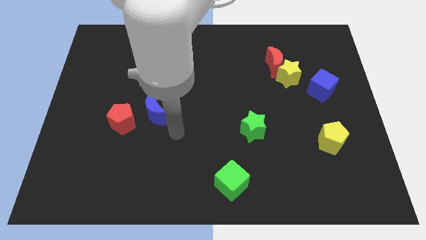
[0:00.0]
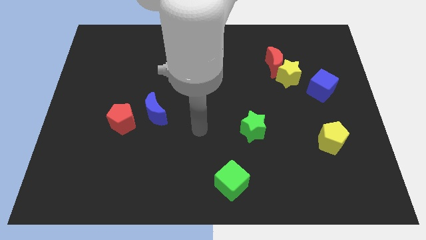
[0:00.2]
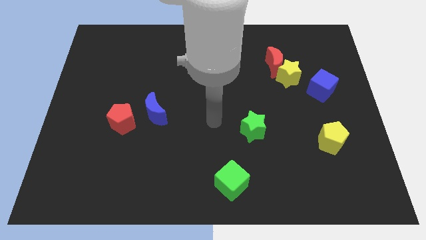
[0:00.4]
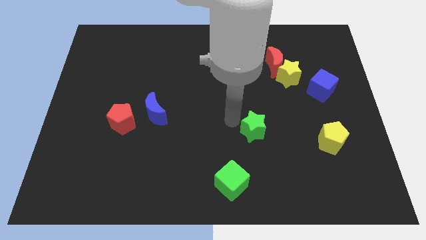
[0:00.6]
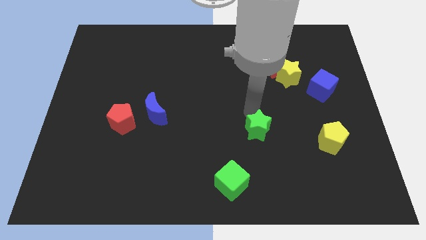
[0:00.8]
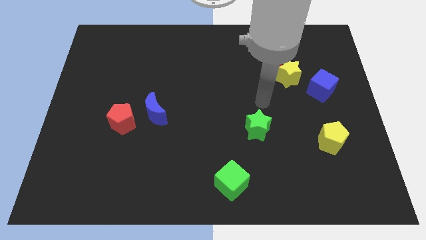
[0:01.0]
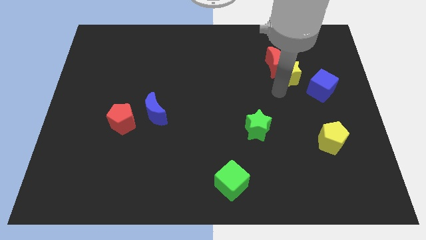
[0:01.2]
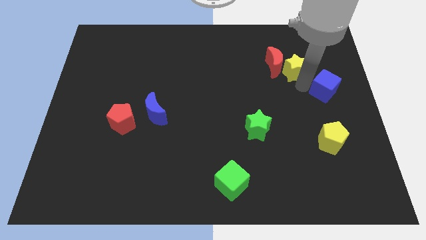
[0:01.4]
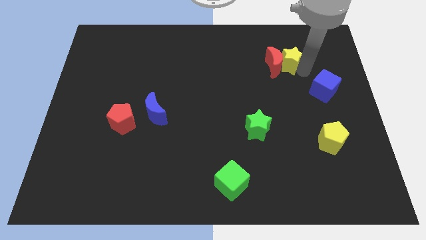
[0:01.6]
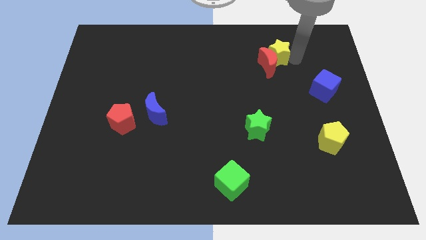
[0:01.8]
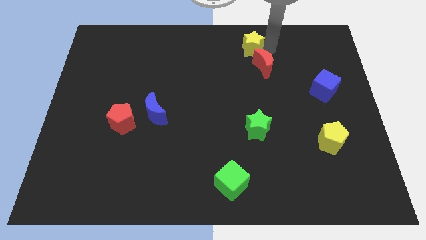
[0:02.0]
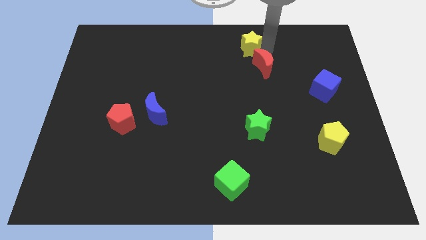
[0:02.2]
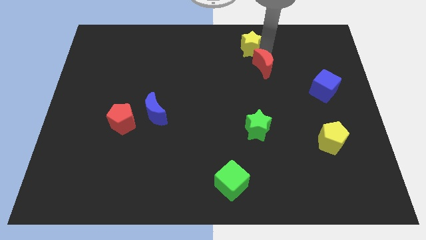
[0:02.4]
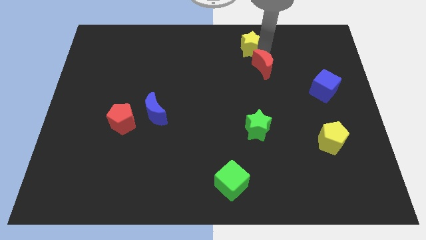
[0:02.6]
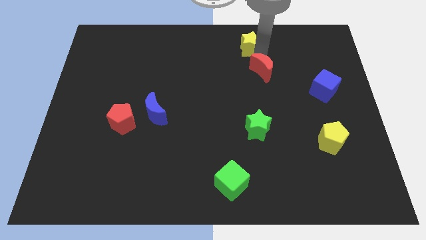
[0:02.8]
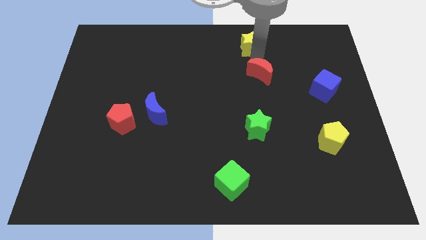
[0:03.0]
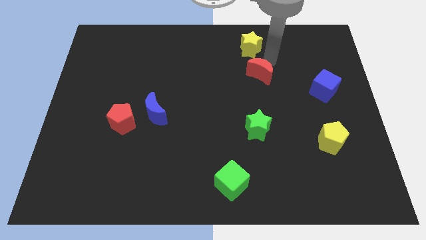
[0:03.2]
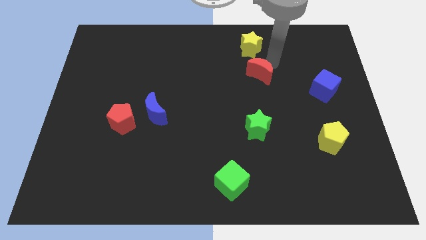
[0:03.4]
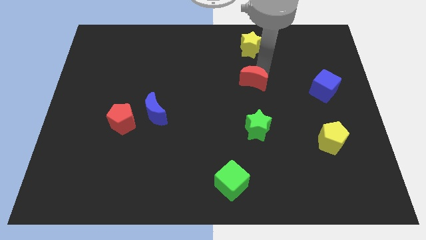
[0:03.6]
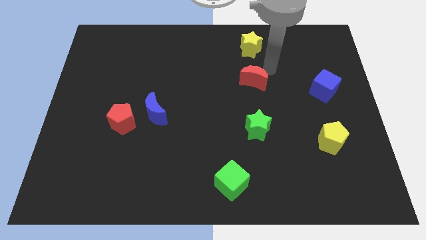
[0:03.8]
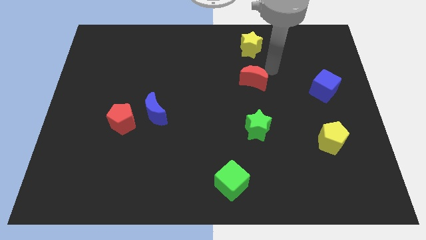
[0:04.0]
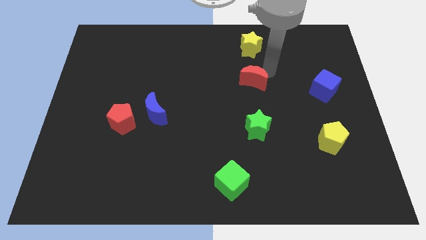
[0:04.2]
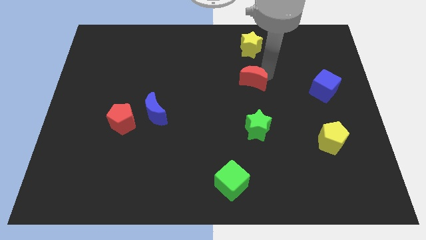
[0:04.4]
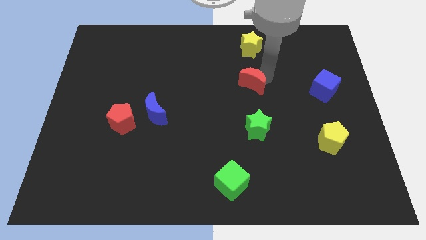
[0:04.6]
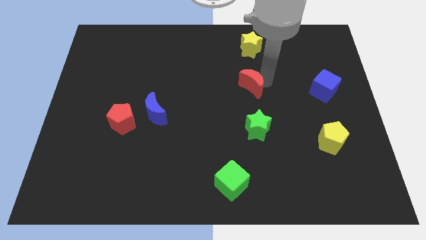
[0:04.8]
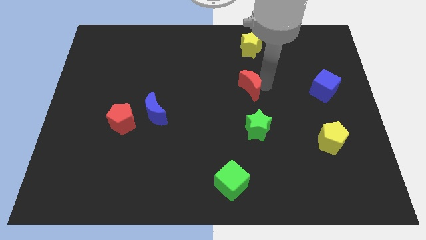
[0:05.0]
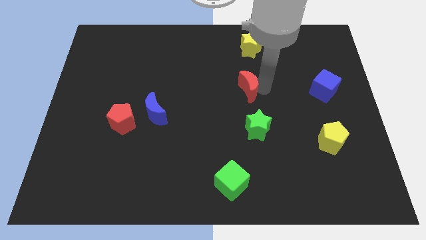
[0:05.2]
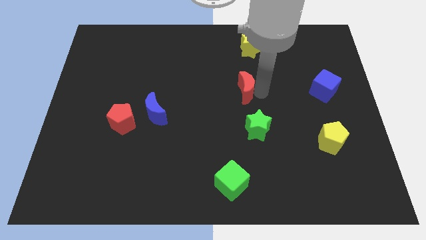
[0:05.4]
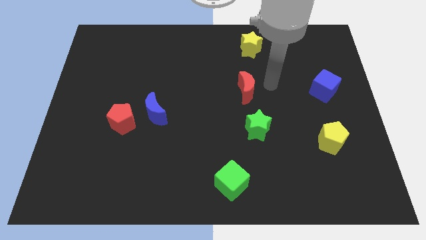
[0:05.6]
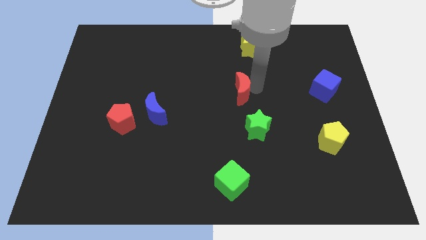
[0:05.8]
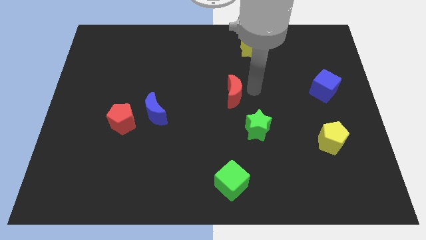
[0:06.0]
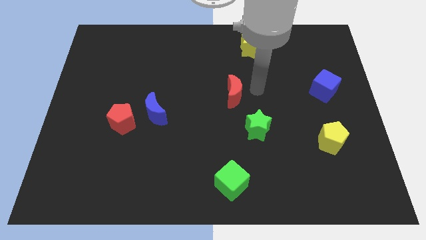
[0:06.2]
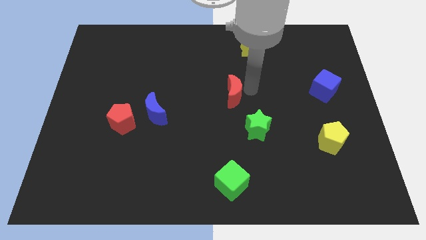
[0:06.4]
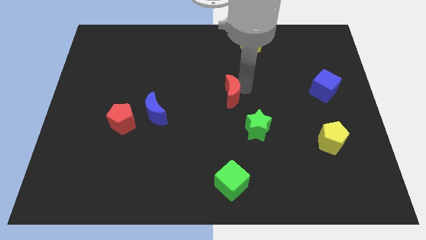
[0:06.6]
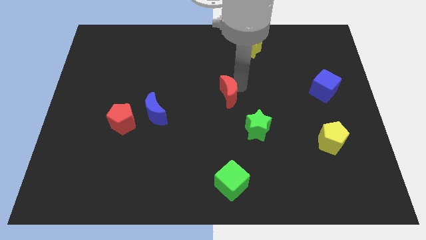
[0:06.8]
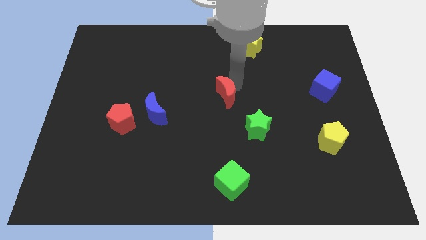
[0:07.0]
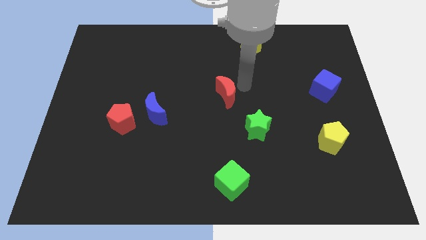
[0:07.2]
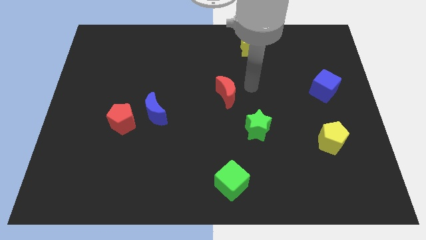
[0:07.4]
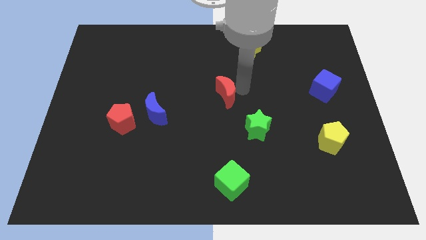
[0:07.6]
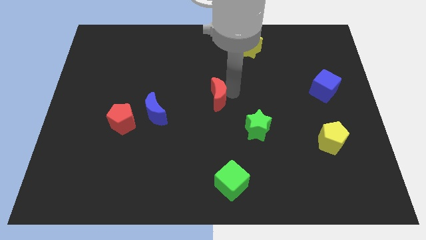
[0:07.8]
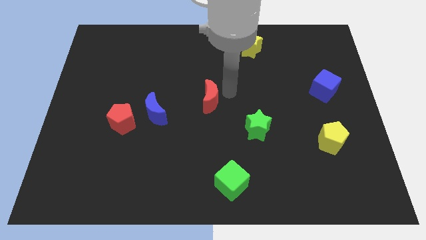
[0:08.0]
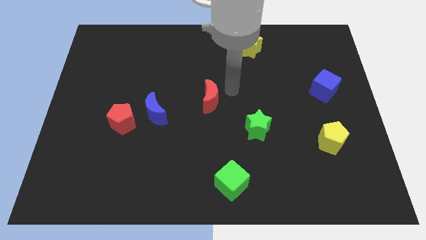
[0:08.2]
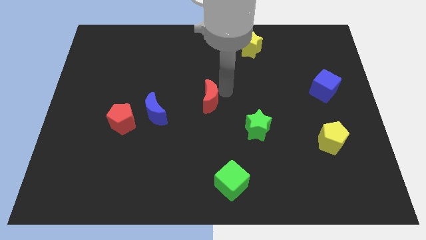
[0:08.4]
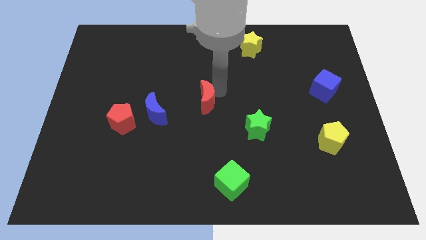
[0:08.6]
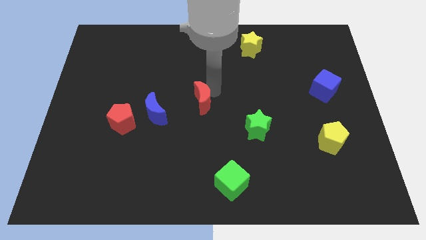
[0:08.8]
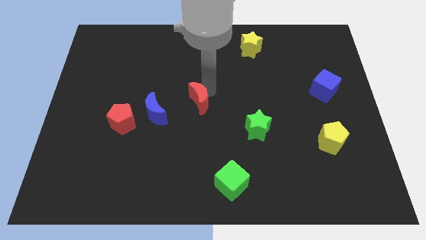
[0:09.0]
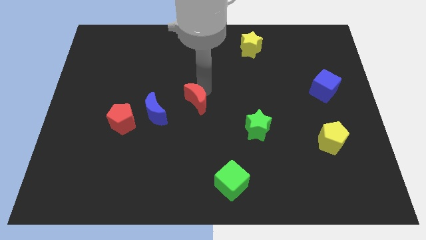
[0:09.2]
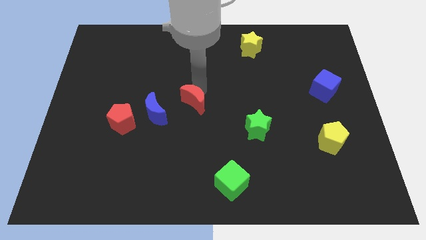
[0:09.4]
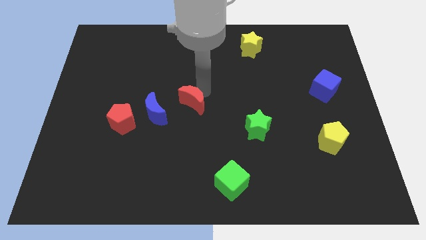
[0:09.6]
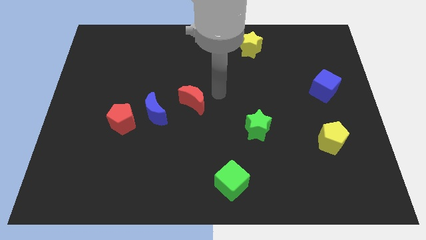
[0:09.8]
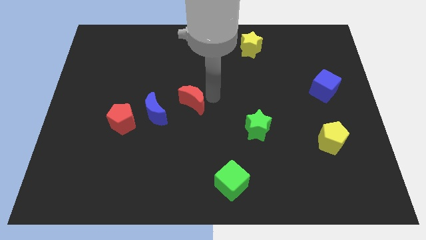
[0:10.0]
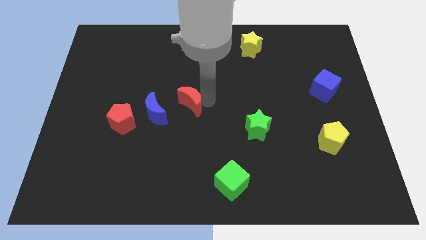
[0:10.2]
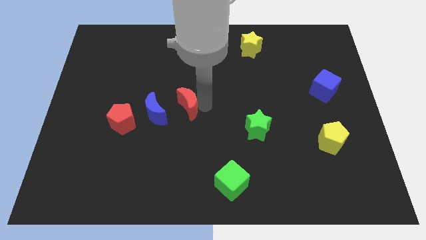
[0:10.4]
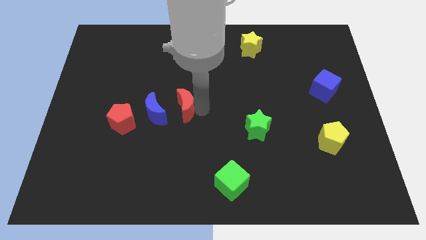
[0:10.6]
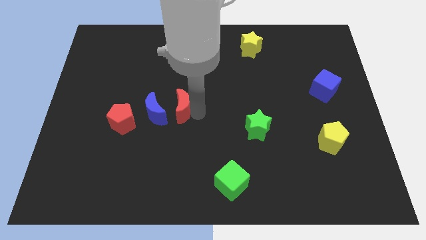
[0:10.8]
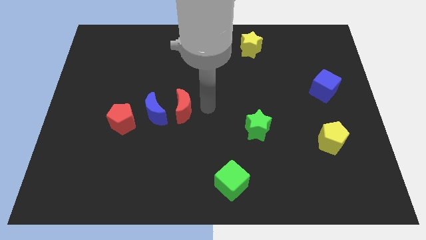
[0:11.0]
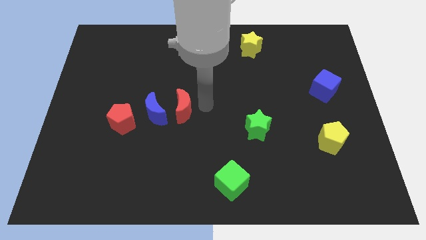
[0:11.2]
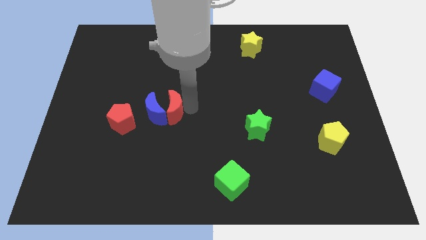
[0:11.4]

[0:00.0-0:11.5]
move the red moon towards the blue moon

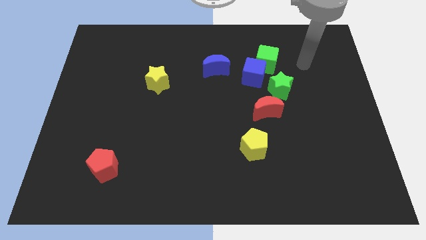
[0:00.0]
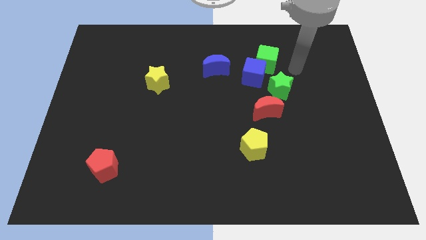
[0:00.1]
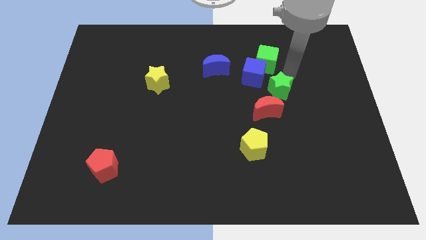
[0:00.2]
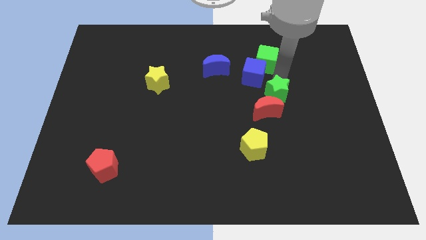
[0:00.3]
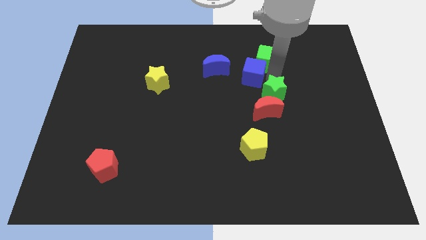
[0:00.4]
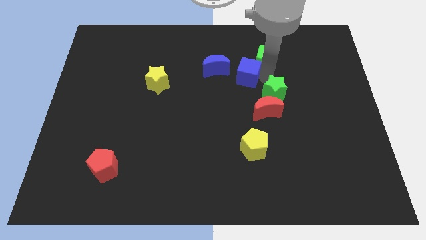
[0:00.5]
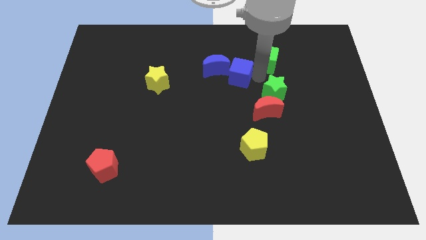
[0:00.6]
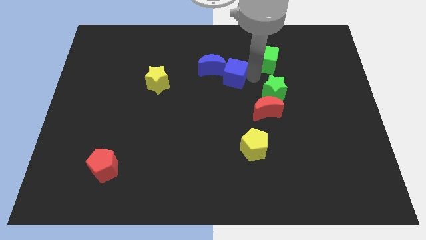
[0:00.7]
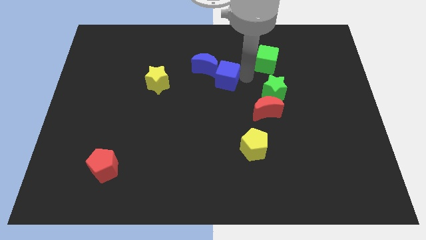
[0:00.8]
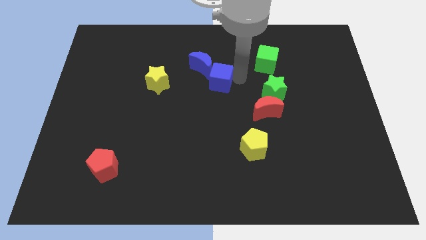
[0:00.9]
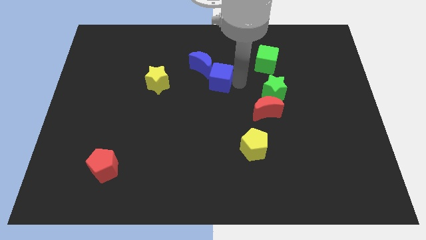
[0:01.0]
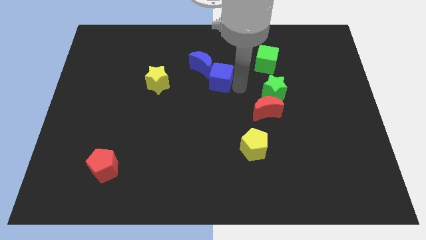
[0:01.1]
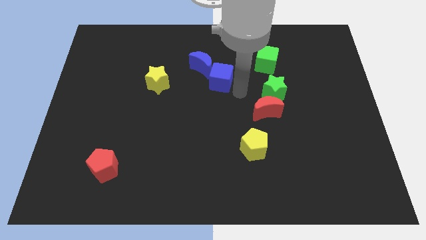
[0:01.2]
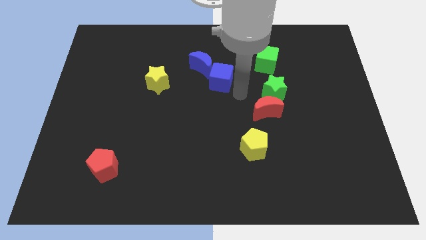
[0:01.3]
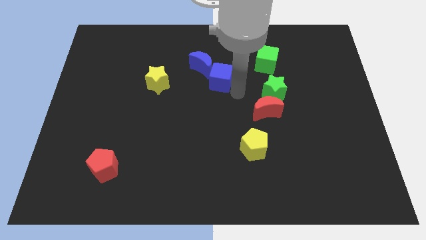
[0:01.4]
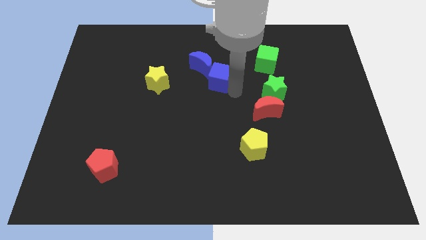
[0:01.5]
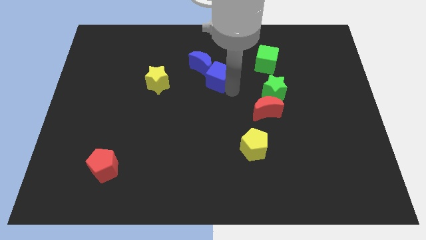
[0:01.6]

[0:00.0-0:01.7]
slide the blue cube next to the blue moon

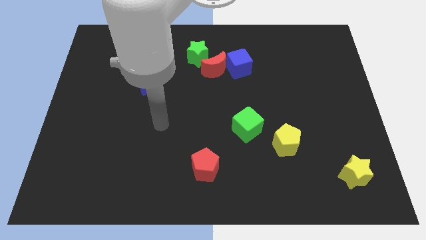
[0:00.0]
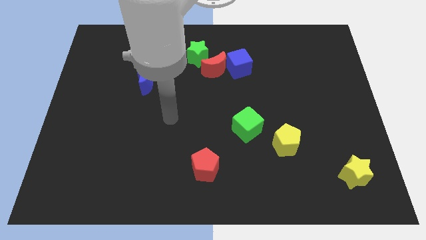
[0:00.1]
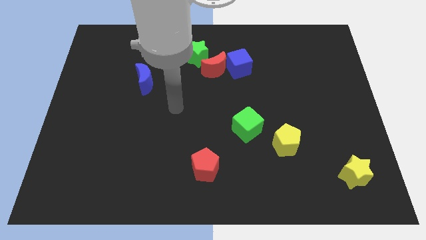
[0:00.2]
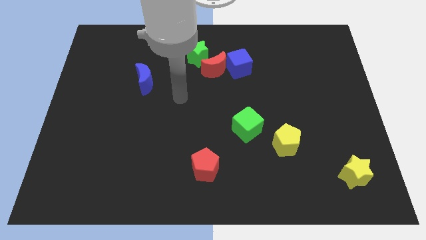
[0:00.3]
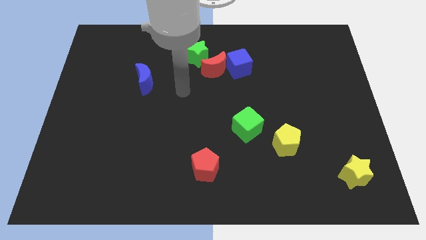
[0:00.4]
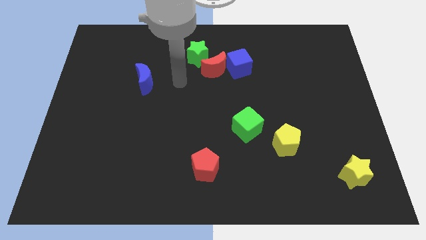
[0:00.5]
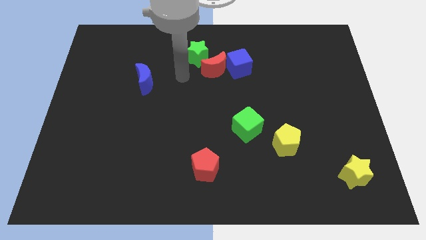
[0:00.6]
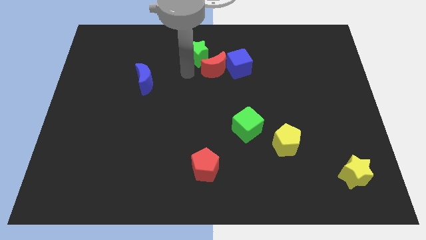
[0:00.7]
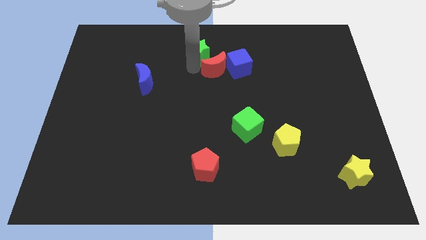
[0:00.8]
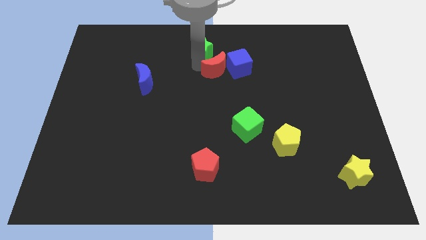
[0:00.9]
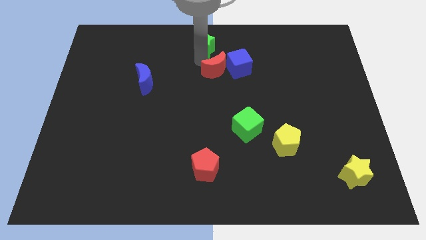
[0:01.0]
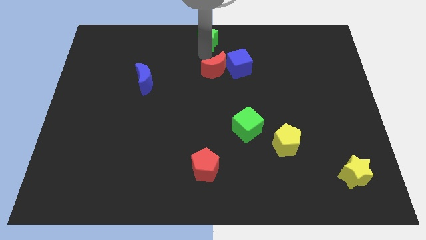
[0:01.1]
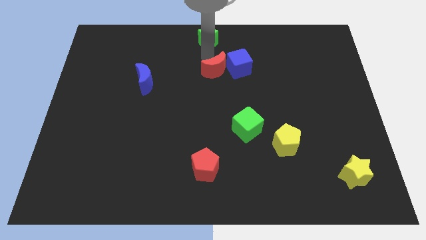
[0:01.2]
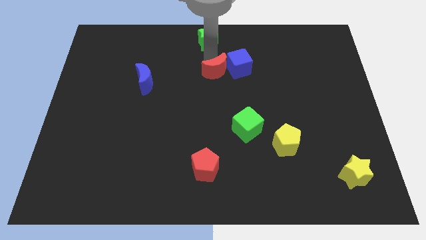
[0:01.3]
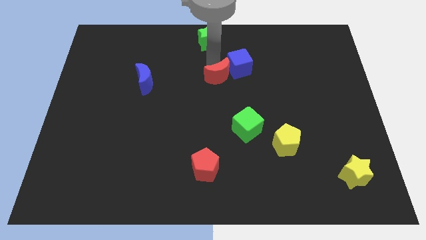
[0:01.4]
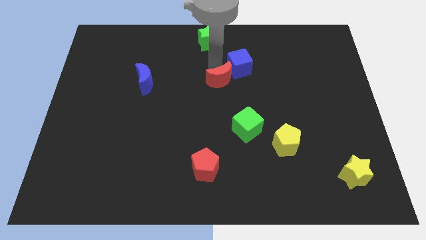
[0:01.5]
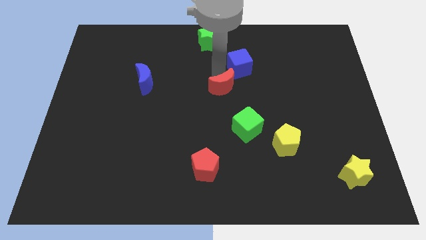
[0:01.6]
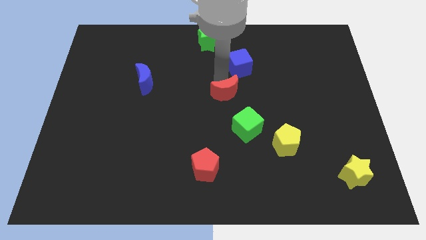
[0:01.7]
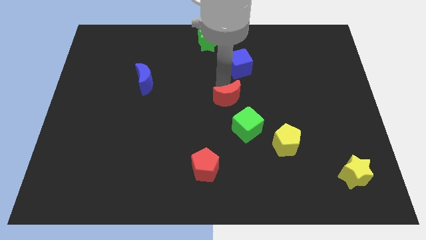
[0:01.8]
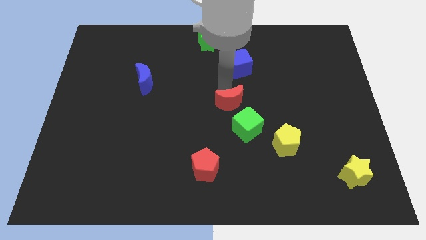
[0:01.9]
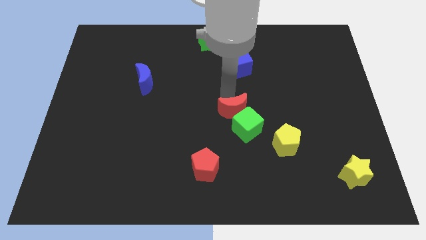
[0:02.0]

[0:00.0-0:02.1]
put the red moon next to the green cube
